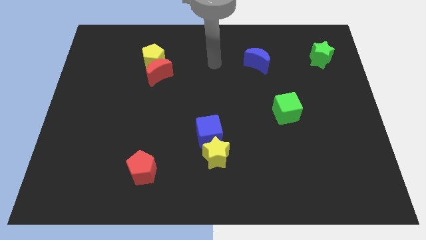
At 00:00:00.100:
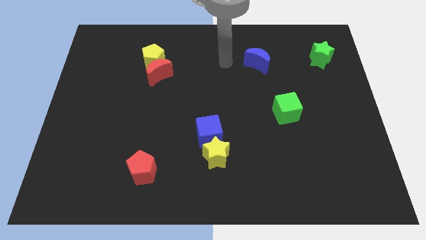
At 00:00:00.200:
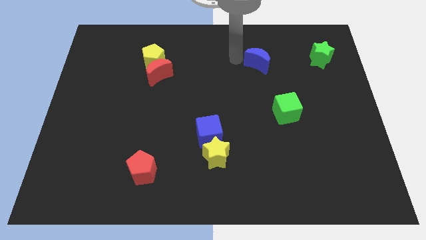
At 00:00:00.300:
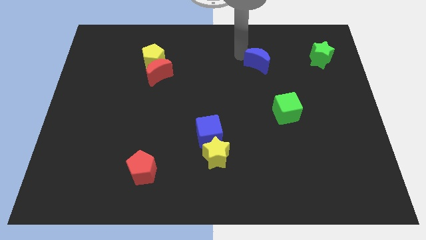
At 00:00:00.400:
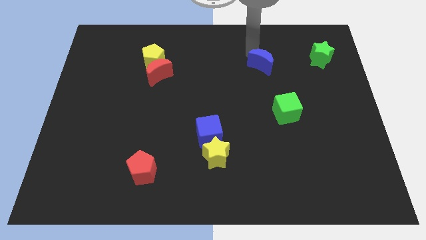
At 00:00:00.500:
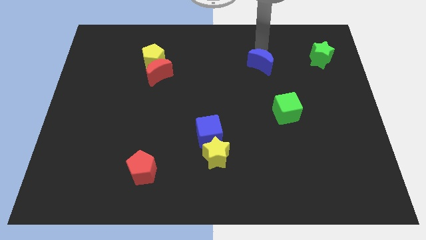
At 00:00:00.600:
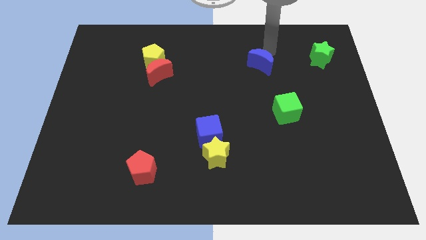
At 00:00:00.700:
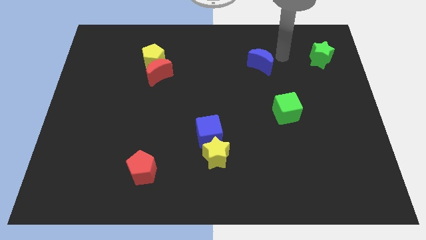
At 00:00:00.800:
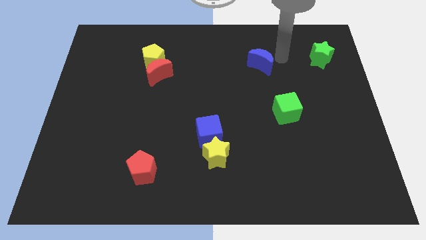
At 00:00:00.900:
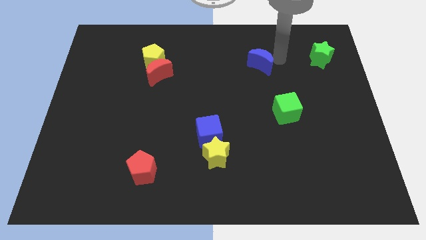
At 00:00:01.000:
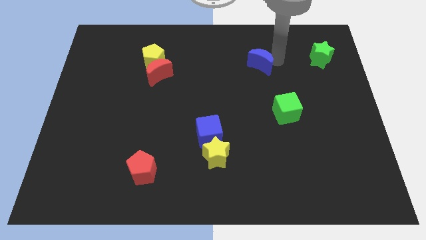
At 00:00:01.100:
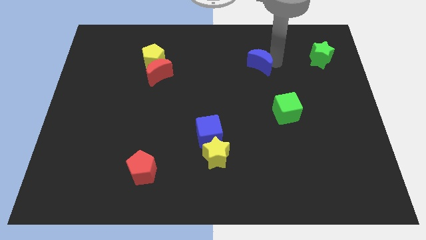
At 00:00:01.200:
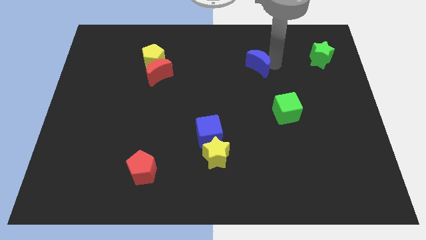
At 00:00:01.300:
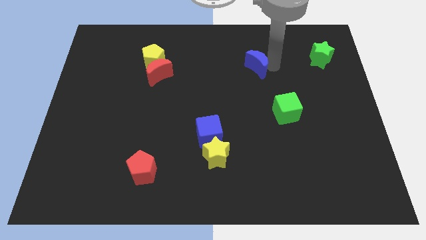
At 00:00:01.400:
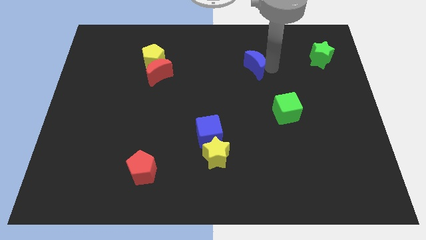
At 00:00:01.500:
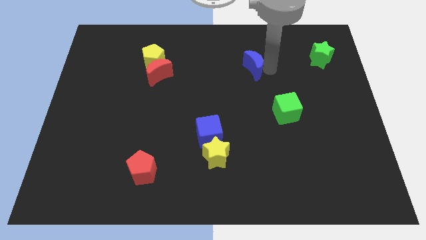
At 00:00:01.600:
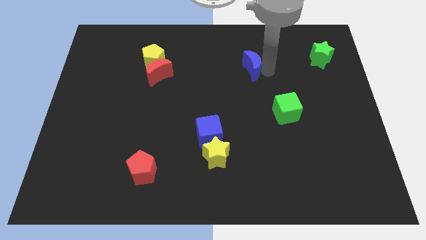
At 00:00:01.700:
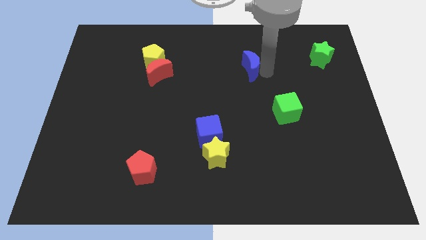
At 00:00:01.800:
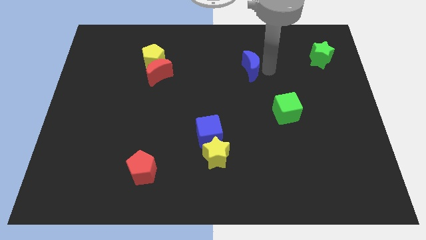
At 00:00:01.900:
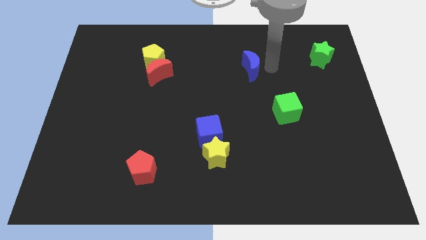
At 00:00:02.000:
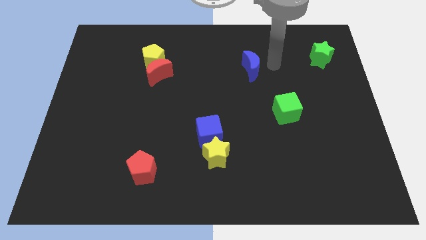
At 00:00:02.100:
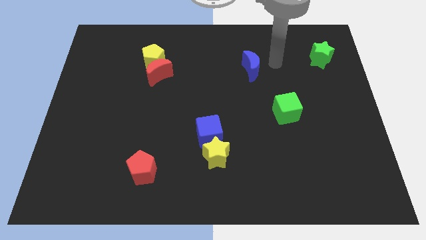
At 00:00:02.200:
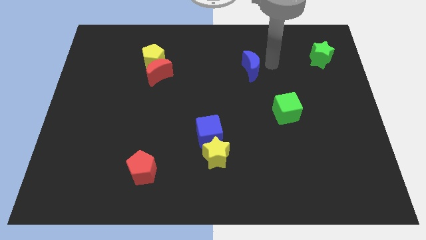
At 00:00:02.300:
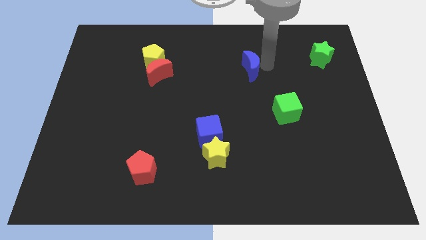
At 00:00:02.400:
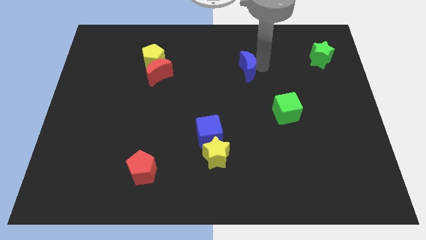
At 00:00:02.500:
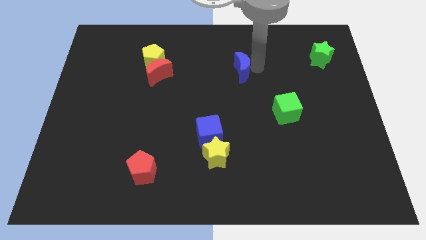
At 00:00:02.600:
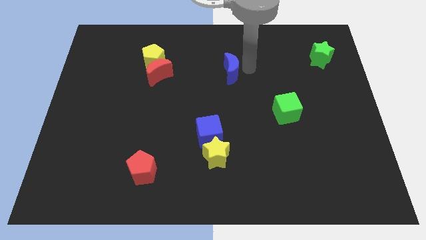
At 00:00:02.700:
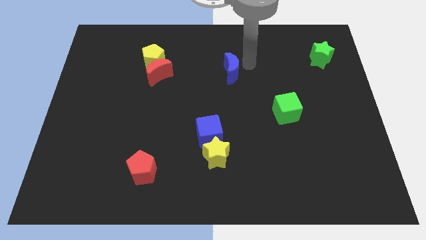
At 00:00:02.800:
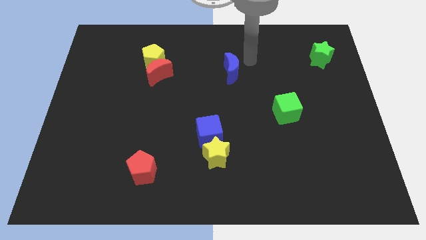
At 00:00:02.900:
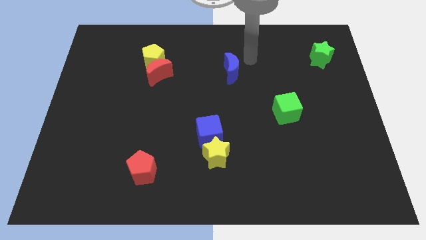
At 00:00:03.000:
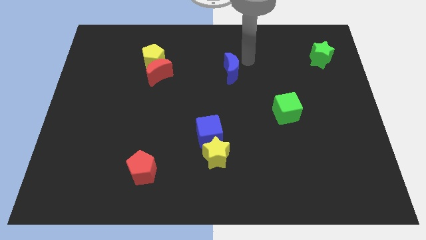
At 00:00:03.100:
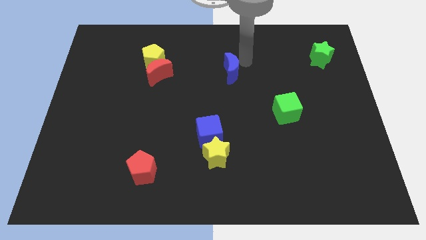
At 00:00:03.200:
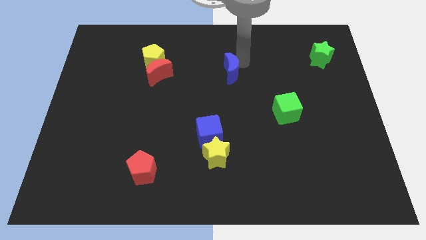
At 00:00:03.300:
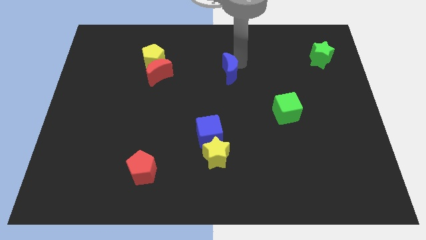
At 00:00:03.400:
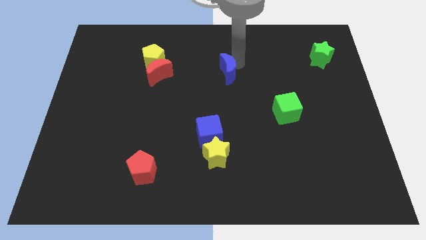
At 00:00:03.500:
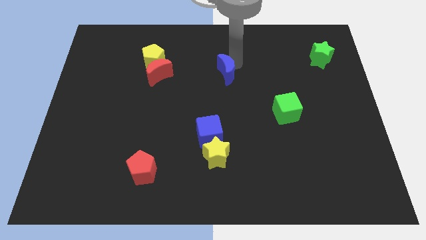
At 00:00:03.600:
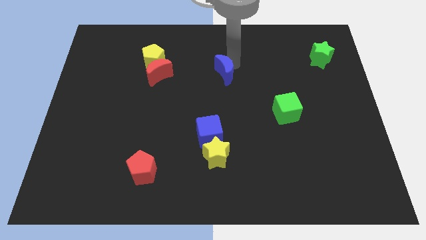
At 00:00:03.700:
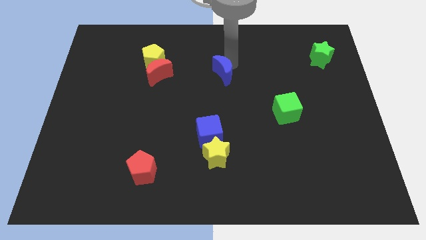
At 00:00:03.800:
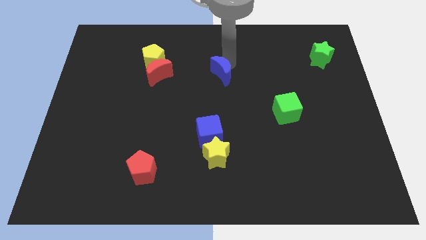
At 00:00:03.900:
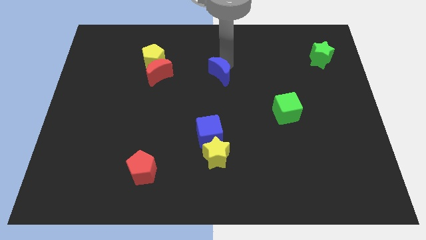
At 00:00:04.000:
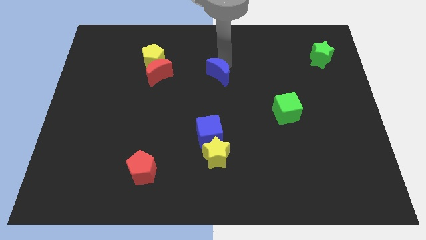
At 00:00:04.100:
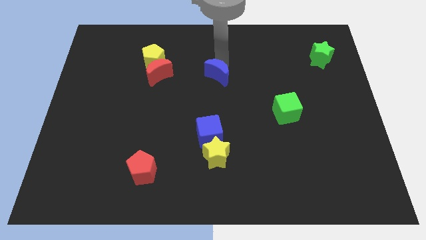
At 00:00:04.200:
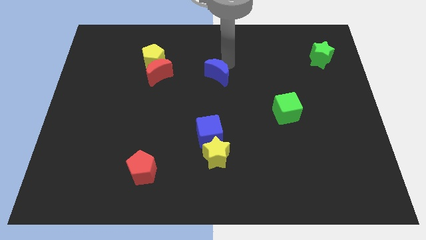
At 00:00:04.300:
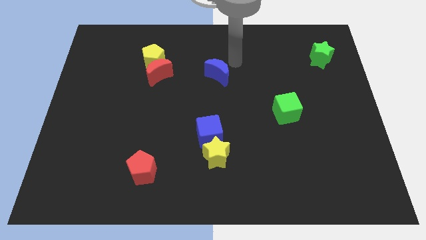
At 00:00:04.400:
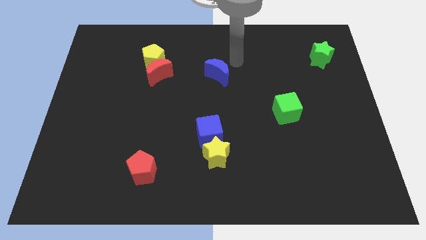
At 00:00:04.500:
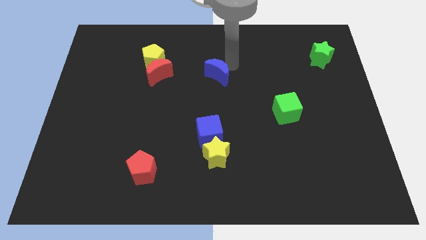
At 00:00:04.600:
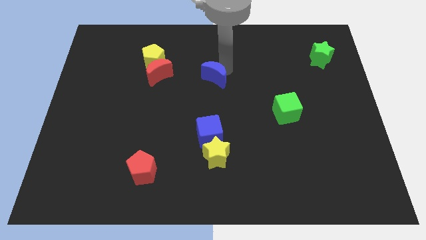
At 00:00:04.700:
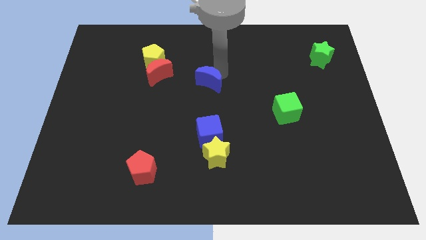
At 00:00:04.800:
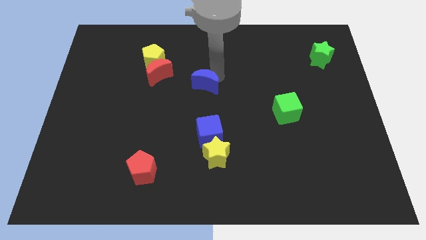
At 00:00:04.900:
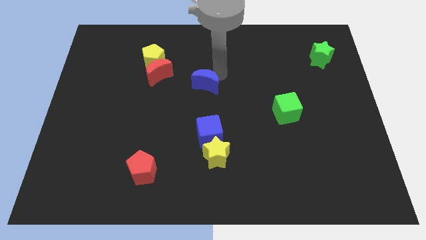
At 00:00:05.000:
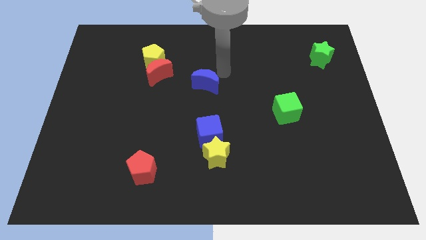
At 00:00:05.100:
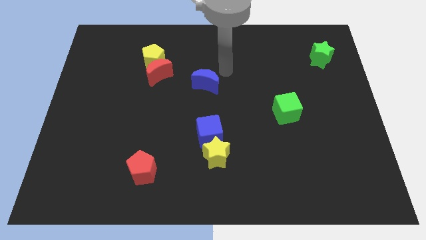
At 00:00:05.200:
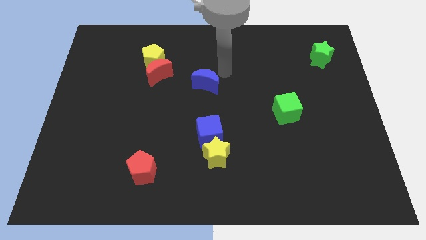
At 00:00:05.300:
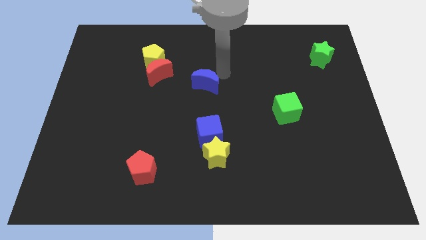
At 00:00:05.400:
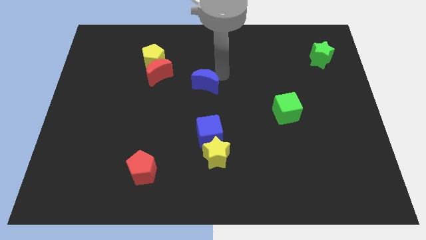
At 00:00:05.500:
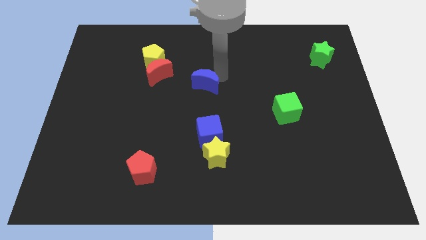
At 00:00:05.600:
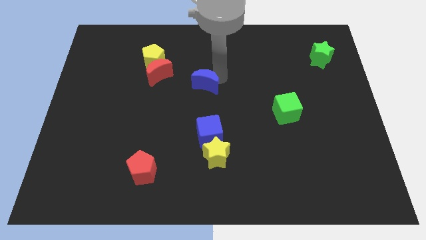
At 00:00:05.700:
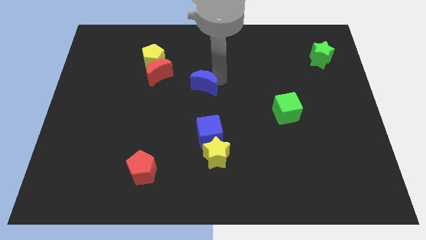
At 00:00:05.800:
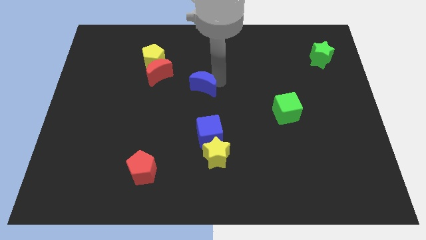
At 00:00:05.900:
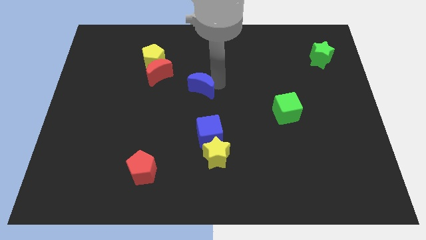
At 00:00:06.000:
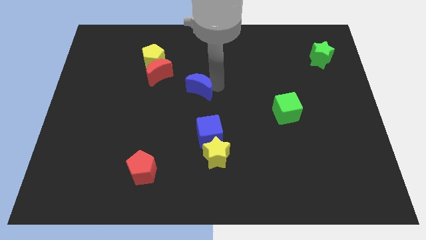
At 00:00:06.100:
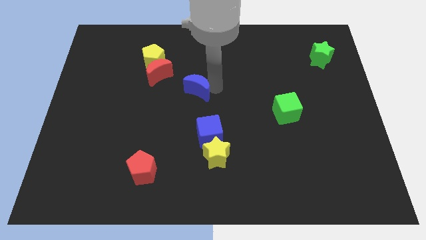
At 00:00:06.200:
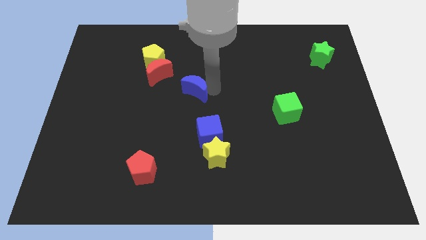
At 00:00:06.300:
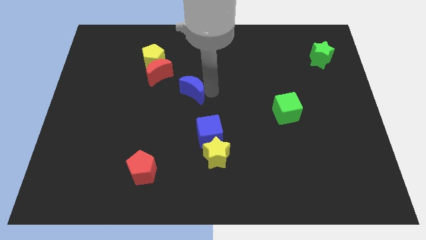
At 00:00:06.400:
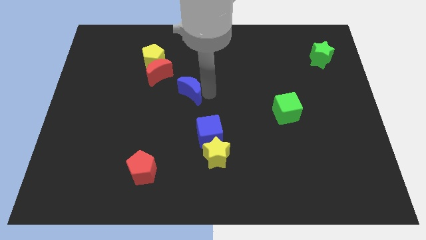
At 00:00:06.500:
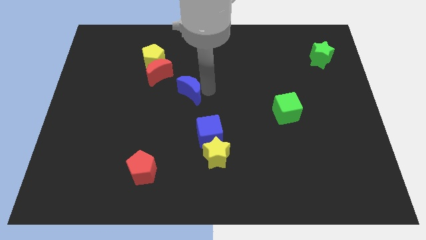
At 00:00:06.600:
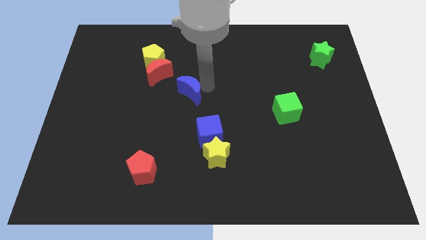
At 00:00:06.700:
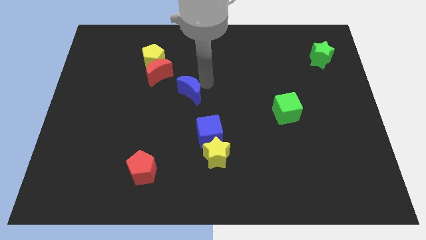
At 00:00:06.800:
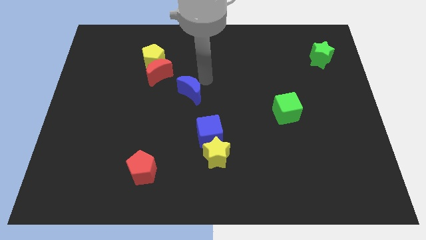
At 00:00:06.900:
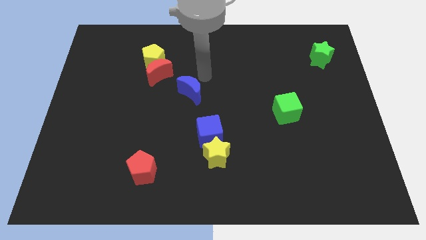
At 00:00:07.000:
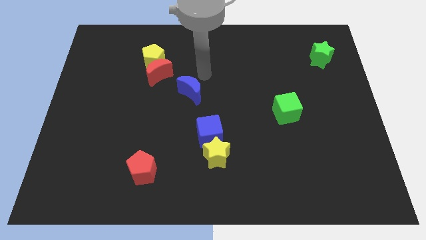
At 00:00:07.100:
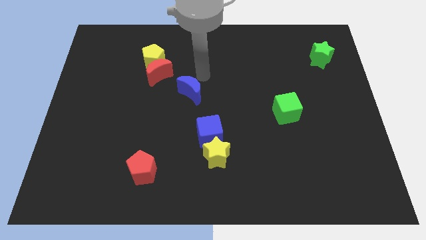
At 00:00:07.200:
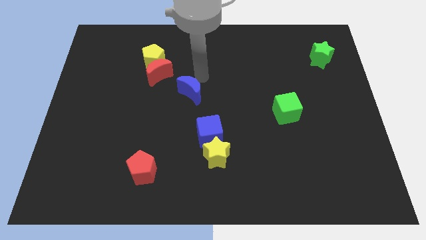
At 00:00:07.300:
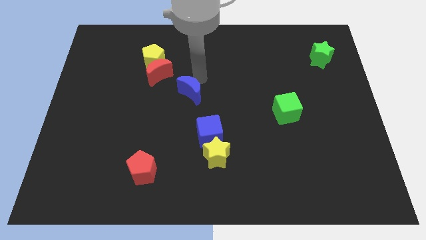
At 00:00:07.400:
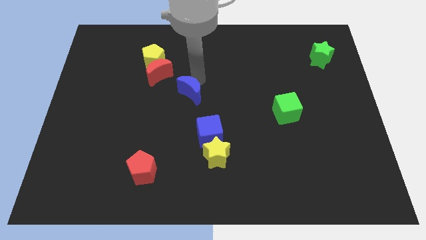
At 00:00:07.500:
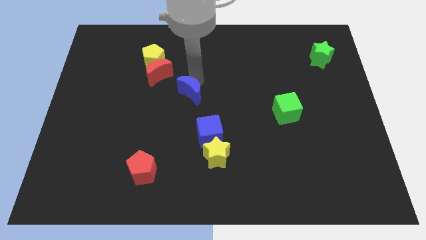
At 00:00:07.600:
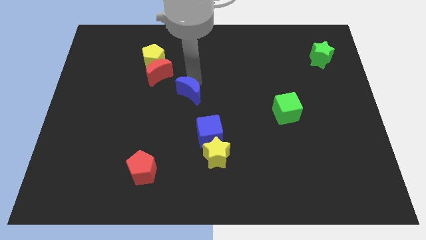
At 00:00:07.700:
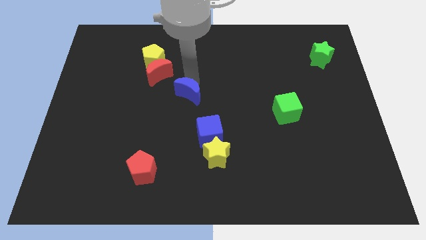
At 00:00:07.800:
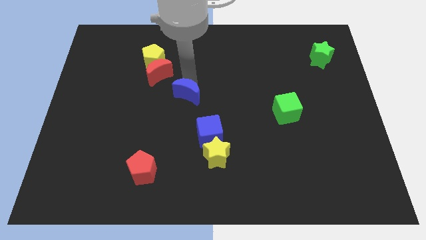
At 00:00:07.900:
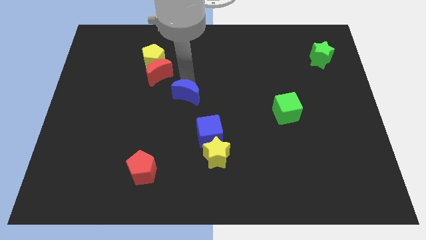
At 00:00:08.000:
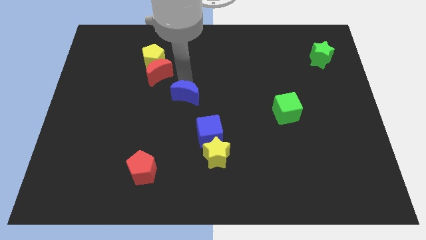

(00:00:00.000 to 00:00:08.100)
slide the blue moon diagonally downwards and to the left
